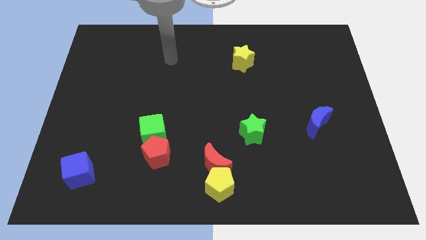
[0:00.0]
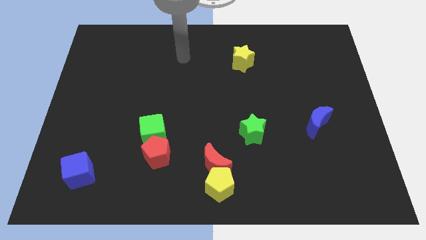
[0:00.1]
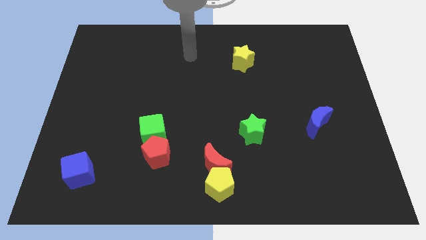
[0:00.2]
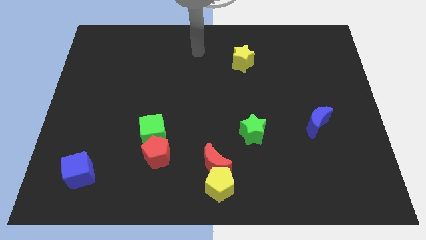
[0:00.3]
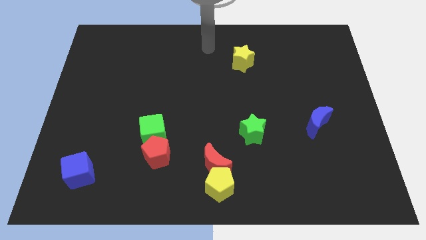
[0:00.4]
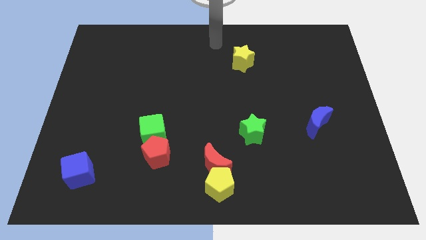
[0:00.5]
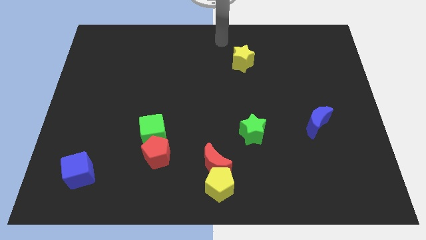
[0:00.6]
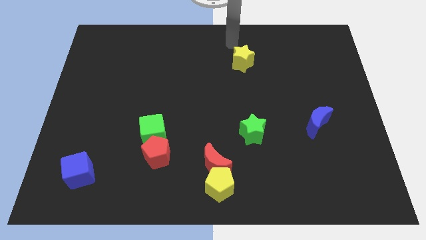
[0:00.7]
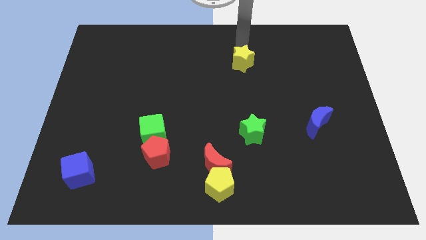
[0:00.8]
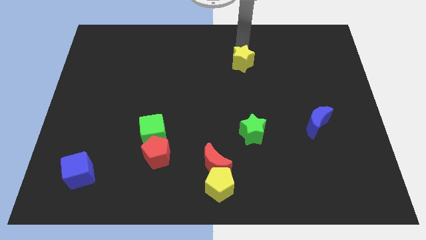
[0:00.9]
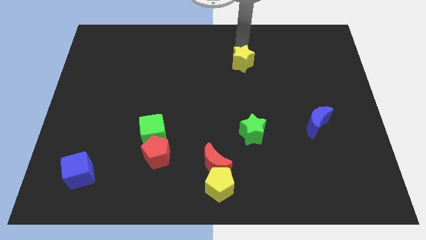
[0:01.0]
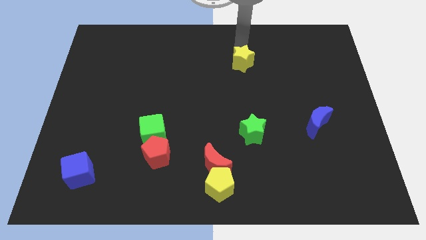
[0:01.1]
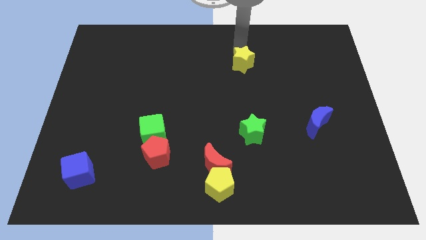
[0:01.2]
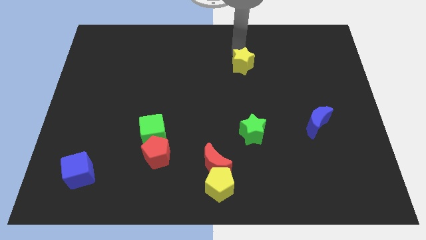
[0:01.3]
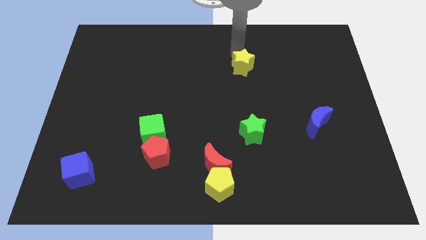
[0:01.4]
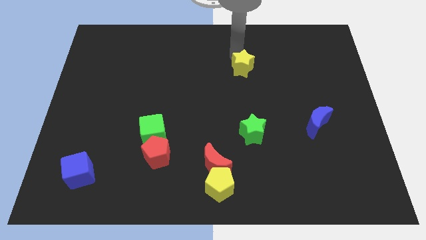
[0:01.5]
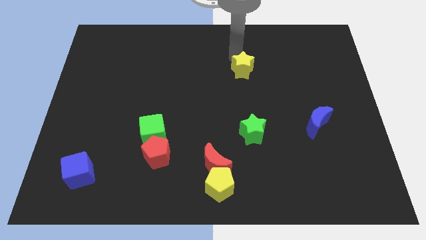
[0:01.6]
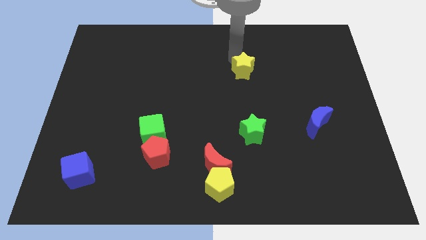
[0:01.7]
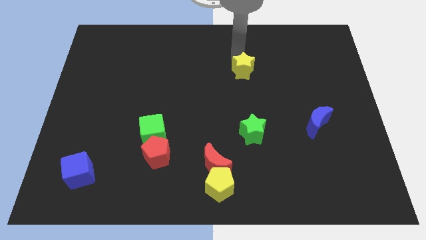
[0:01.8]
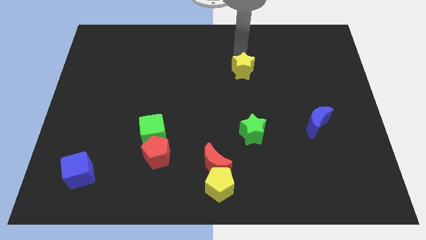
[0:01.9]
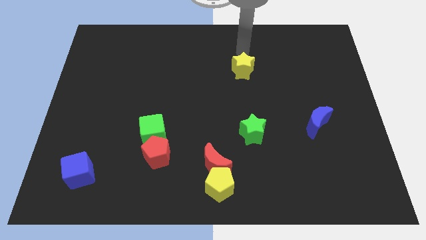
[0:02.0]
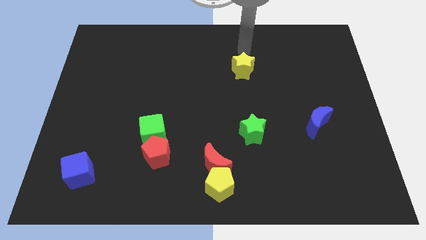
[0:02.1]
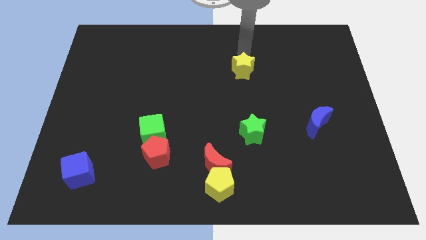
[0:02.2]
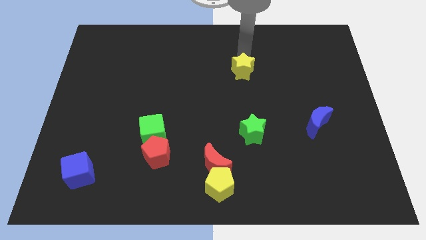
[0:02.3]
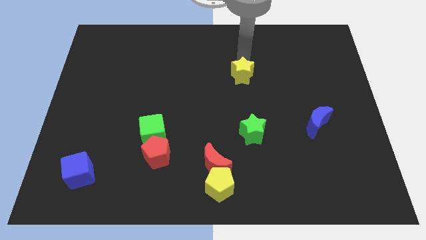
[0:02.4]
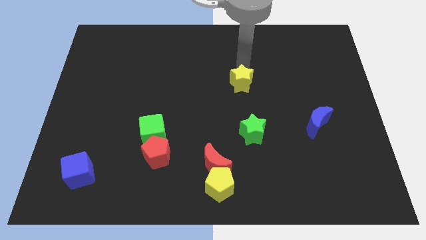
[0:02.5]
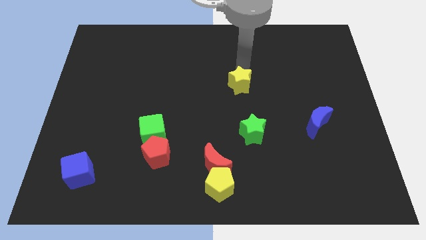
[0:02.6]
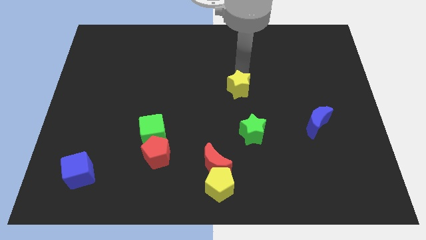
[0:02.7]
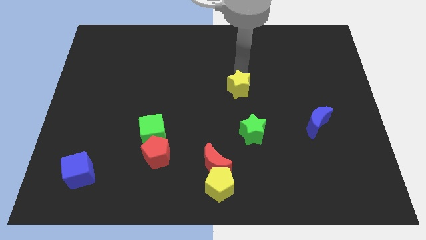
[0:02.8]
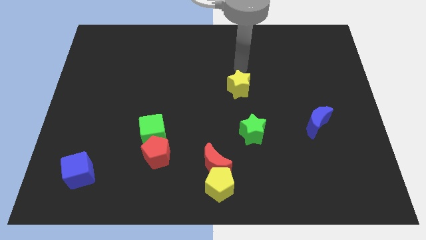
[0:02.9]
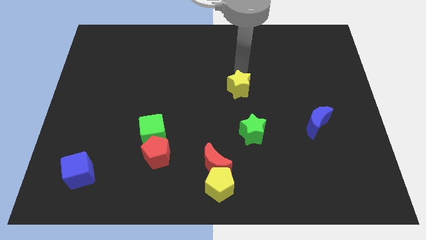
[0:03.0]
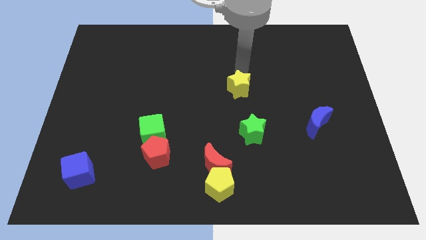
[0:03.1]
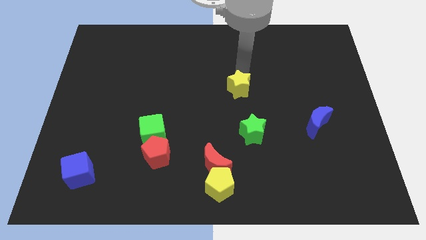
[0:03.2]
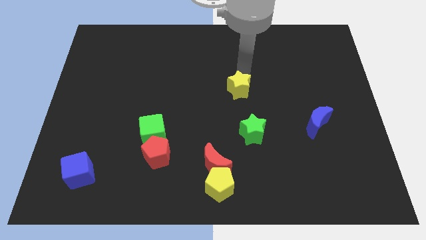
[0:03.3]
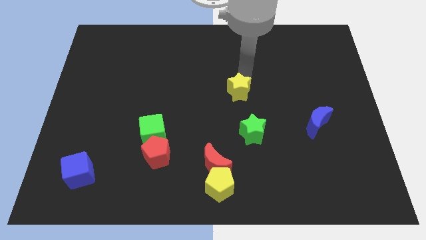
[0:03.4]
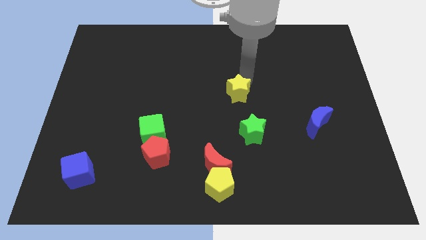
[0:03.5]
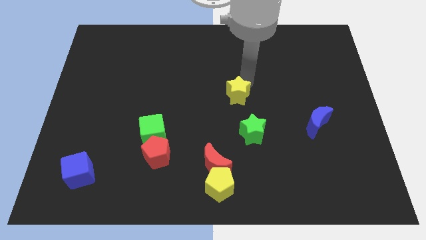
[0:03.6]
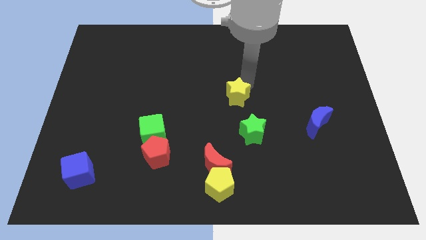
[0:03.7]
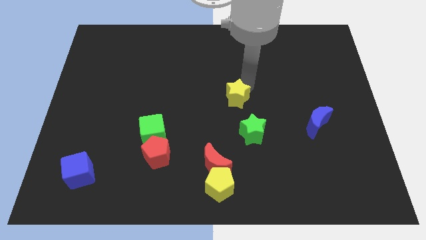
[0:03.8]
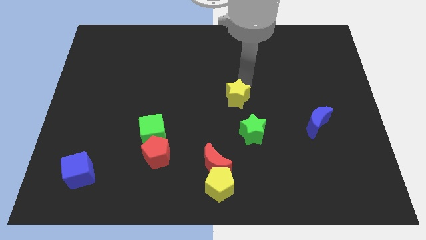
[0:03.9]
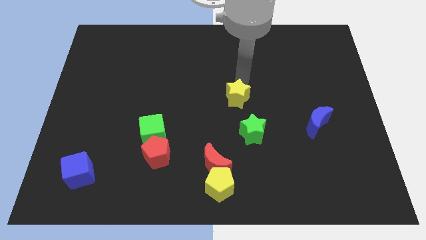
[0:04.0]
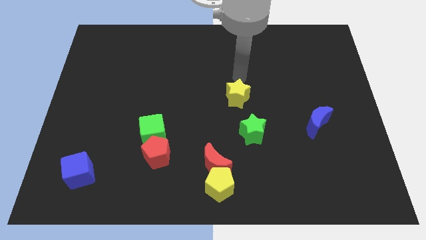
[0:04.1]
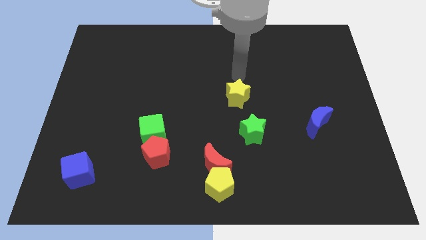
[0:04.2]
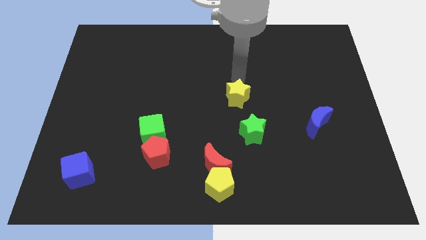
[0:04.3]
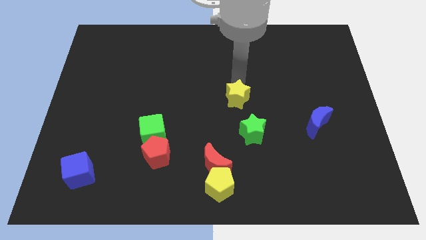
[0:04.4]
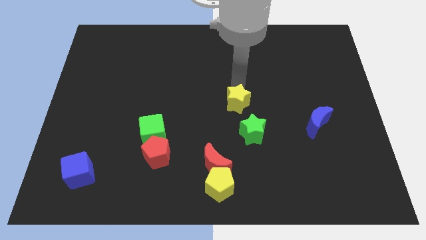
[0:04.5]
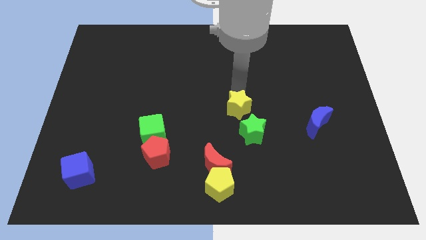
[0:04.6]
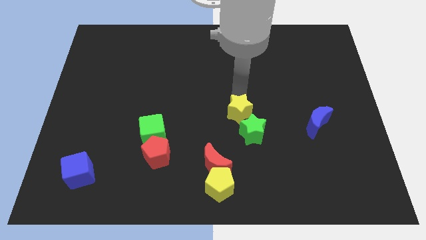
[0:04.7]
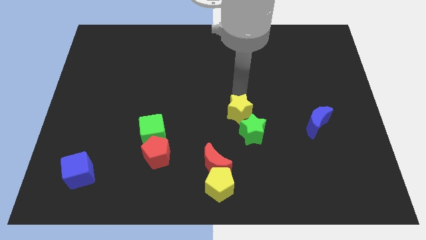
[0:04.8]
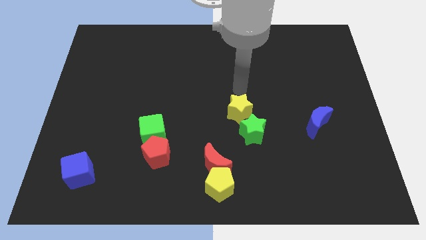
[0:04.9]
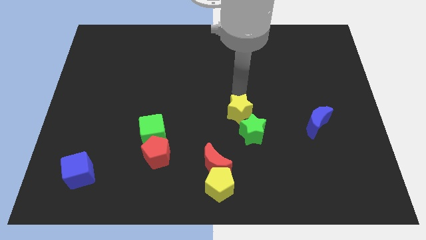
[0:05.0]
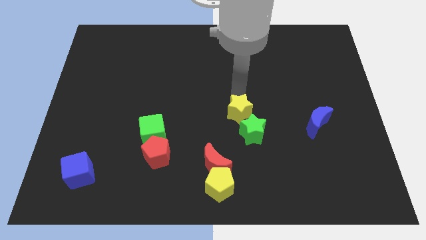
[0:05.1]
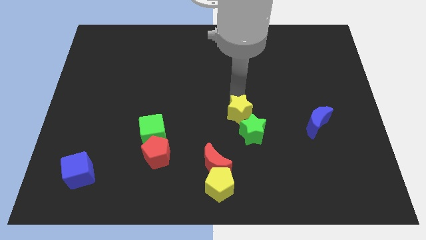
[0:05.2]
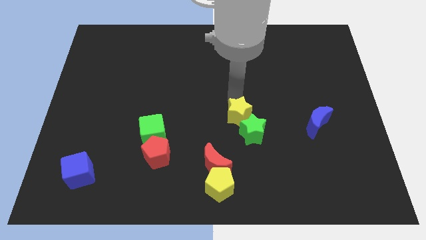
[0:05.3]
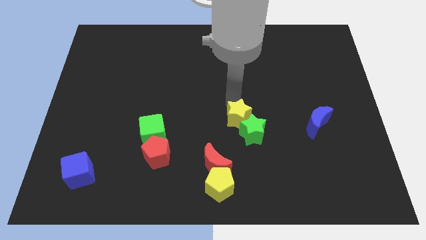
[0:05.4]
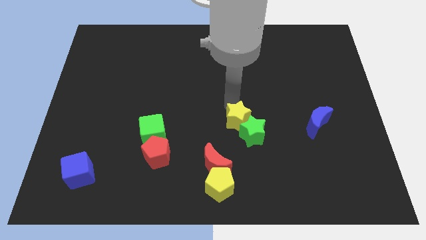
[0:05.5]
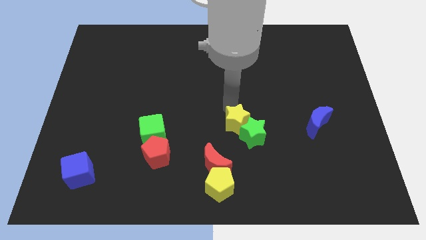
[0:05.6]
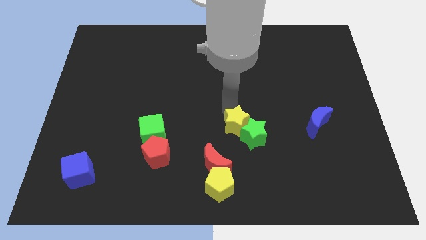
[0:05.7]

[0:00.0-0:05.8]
slide the yellow star to the top right side of the red moon
